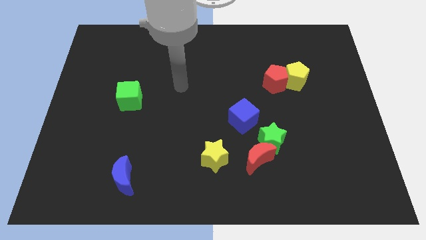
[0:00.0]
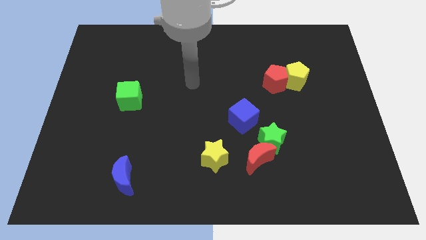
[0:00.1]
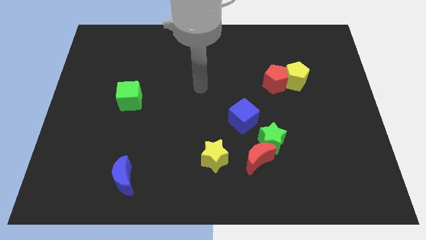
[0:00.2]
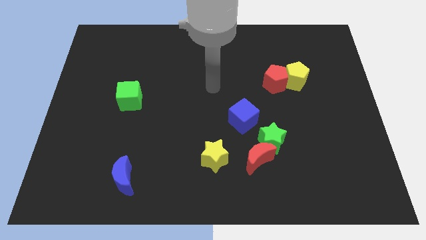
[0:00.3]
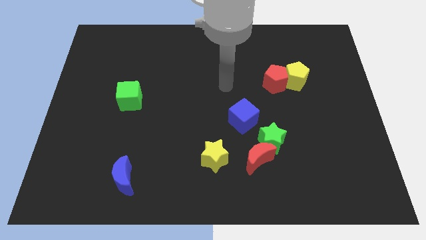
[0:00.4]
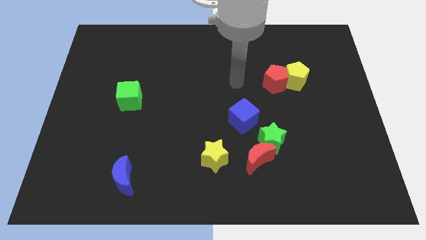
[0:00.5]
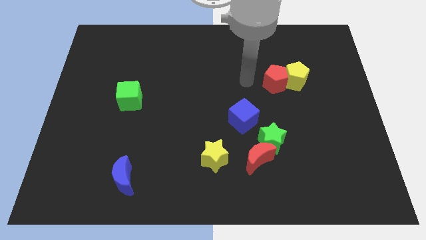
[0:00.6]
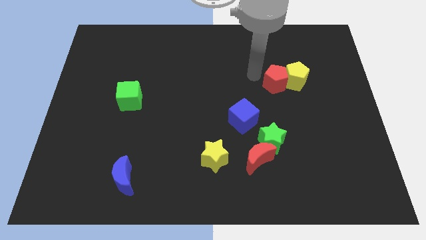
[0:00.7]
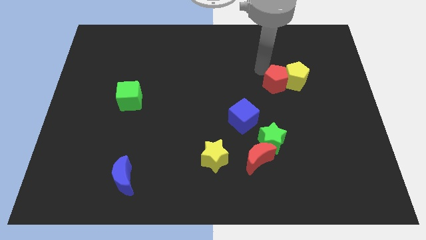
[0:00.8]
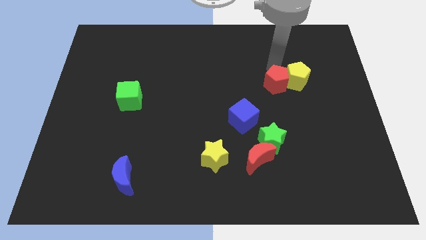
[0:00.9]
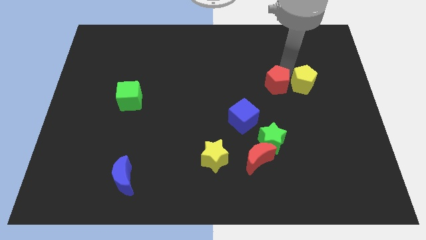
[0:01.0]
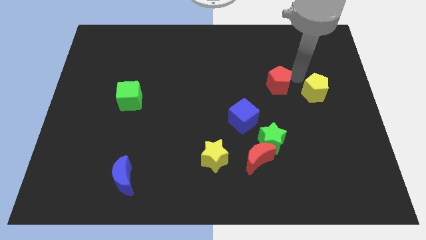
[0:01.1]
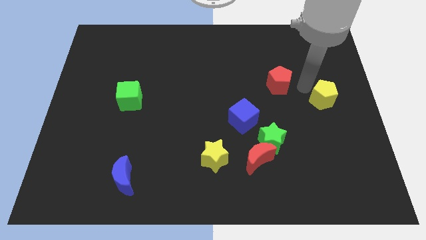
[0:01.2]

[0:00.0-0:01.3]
separate the red pentagon from the yellow pentagon

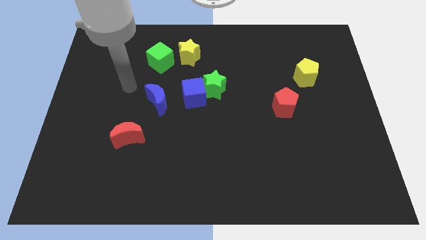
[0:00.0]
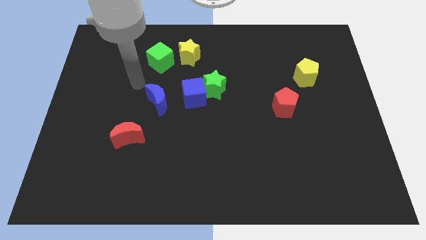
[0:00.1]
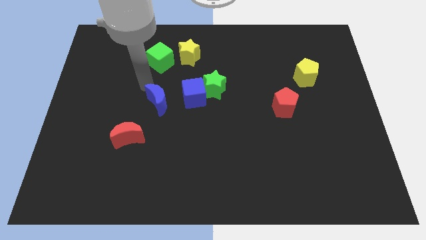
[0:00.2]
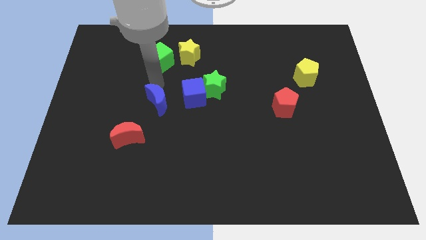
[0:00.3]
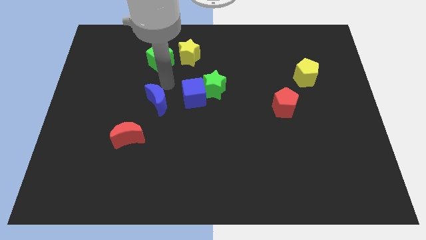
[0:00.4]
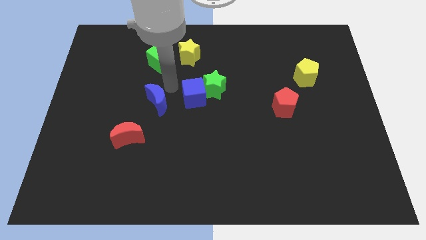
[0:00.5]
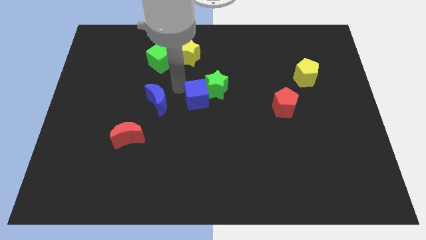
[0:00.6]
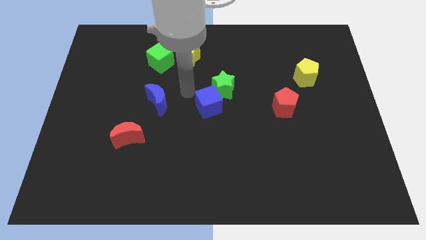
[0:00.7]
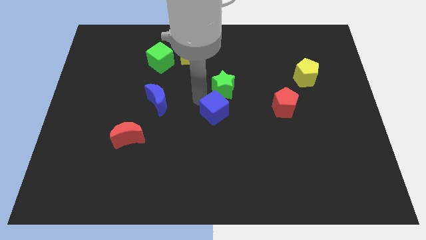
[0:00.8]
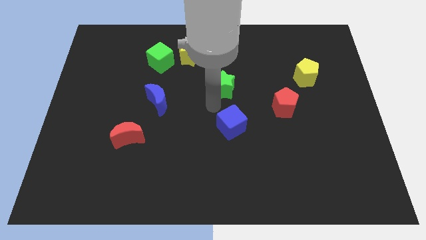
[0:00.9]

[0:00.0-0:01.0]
pull the green star apart from the blue cube

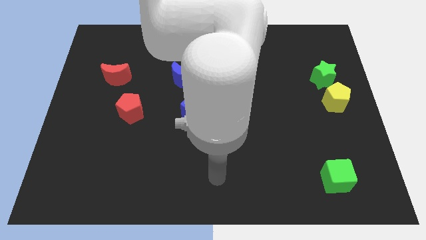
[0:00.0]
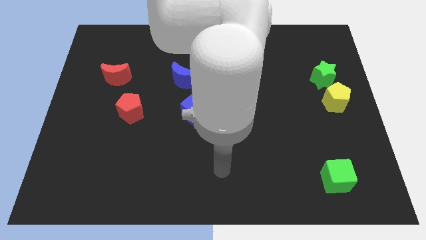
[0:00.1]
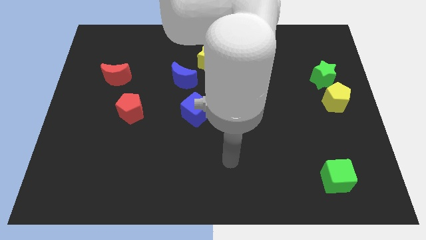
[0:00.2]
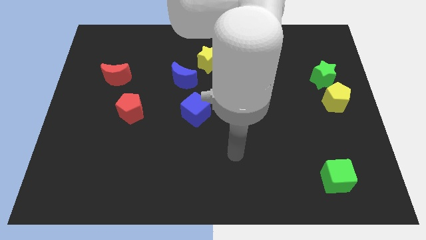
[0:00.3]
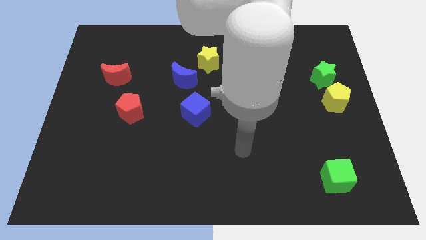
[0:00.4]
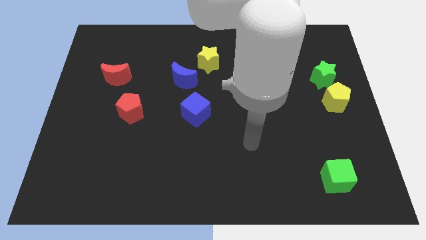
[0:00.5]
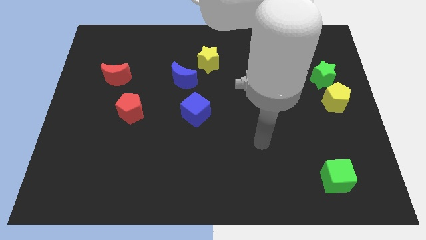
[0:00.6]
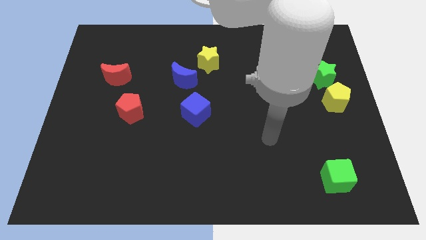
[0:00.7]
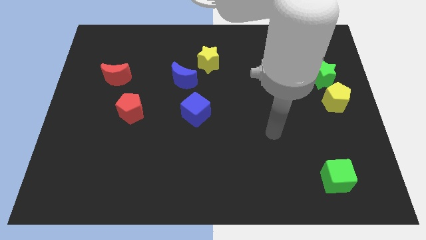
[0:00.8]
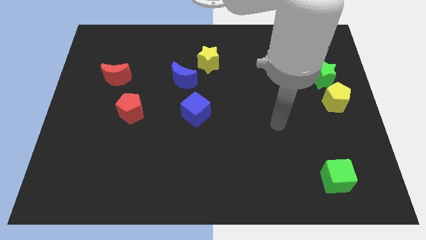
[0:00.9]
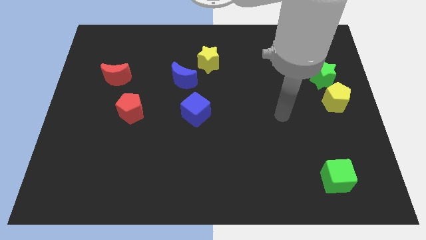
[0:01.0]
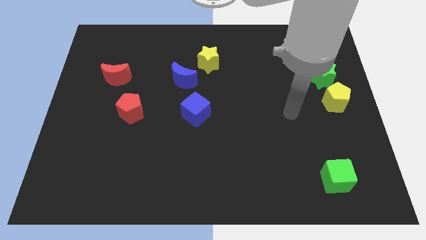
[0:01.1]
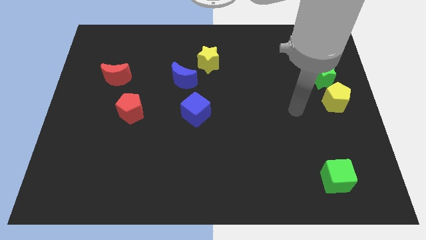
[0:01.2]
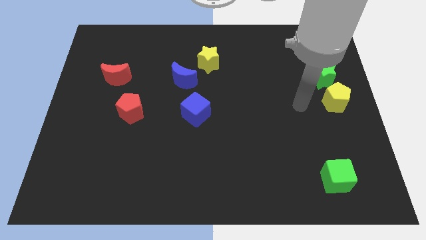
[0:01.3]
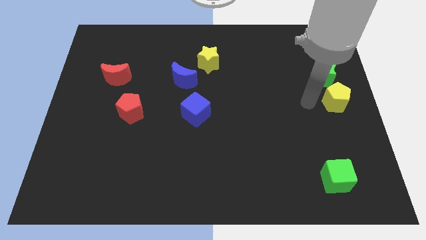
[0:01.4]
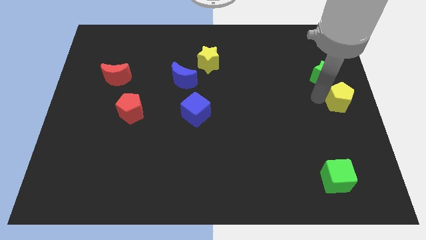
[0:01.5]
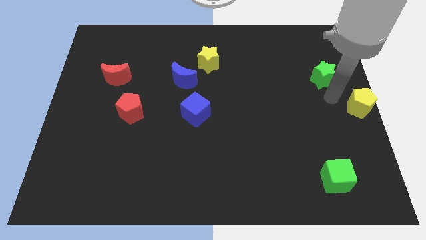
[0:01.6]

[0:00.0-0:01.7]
move the green star away from the yellow pentagon

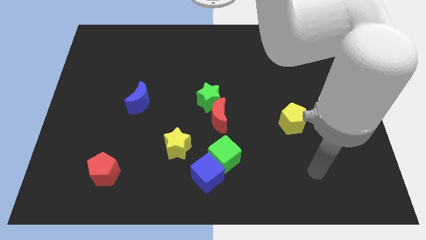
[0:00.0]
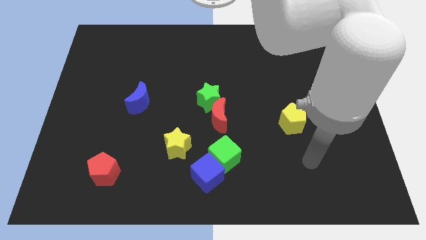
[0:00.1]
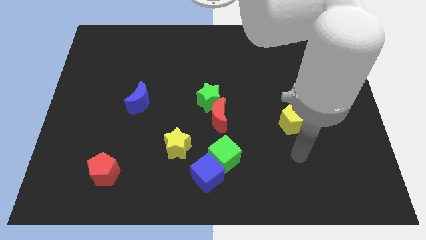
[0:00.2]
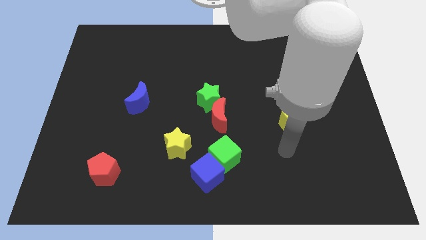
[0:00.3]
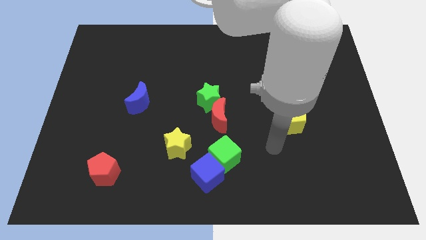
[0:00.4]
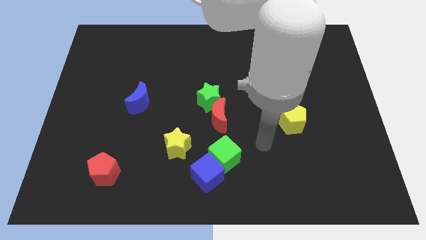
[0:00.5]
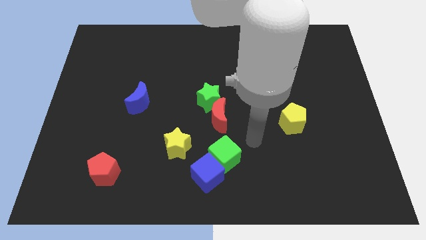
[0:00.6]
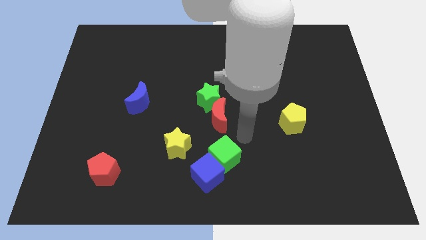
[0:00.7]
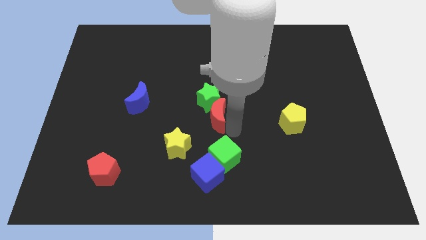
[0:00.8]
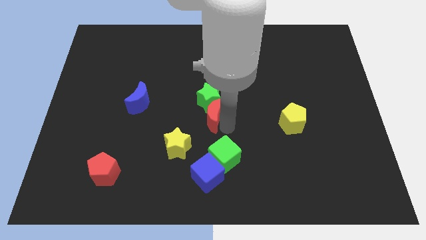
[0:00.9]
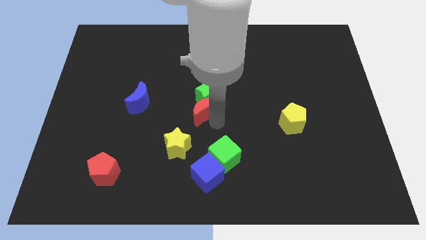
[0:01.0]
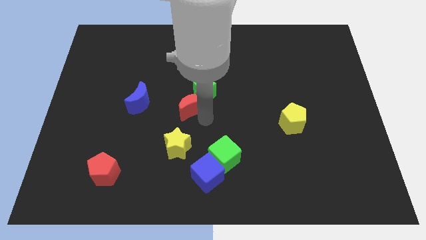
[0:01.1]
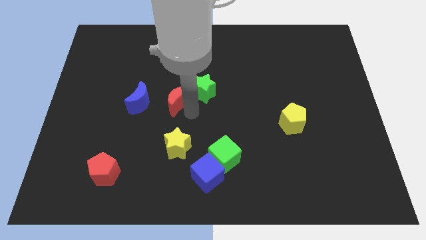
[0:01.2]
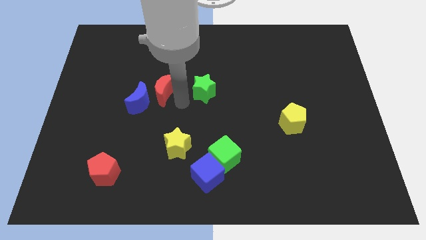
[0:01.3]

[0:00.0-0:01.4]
separate the green star from the red moon

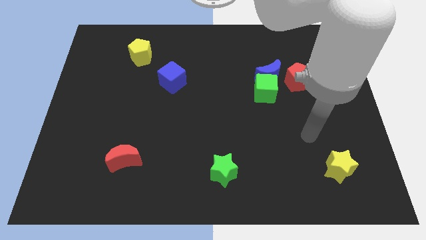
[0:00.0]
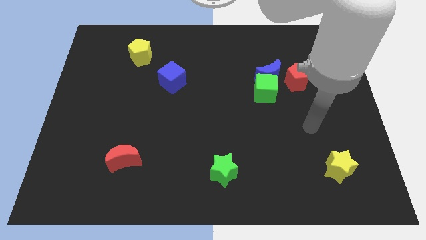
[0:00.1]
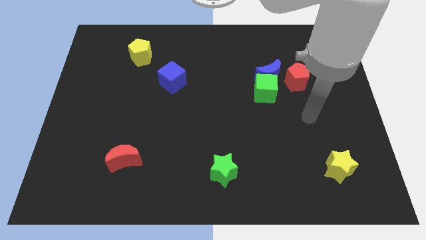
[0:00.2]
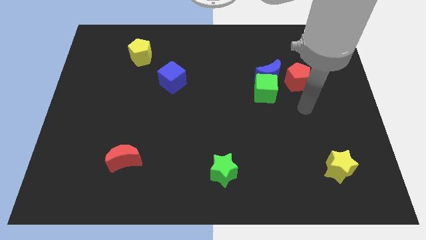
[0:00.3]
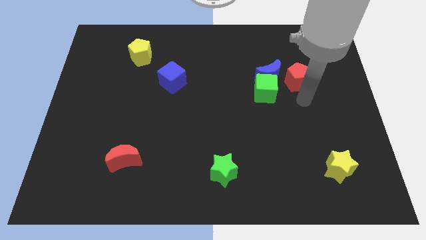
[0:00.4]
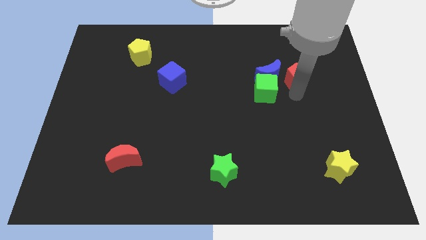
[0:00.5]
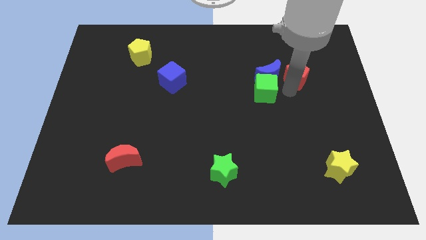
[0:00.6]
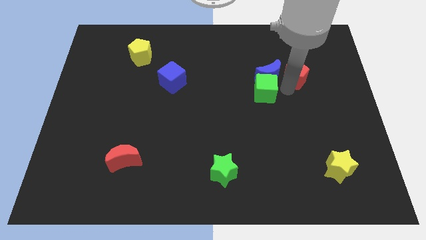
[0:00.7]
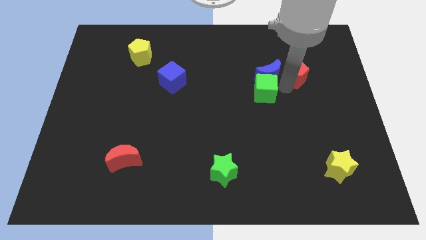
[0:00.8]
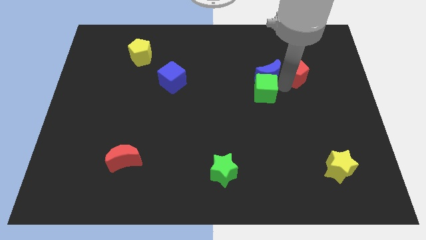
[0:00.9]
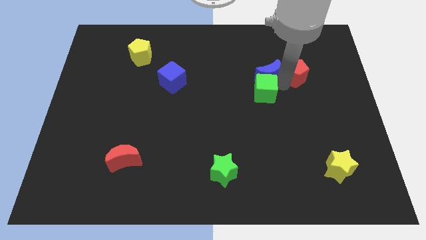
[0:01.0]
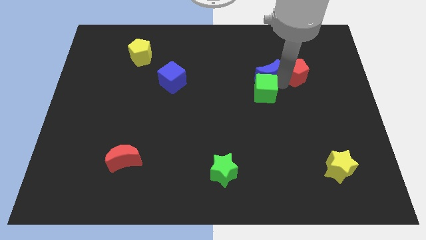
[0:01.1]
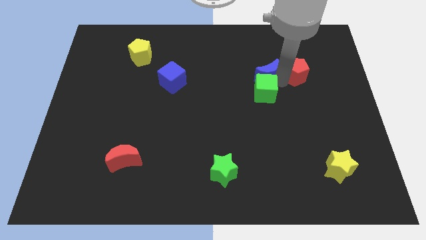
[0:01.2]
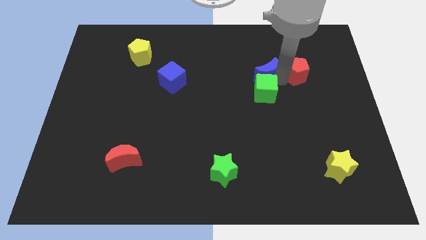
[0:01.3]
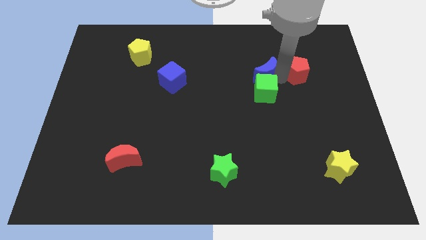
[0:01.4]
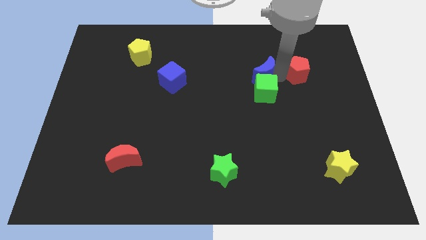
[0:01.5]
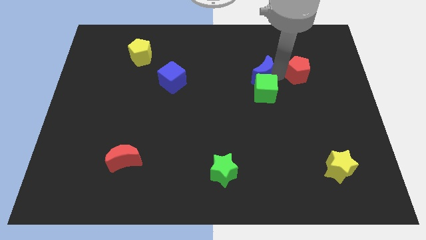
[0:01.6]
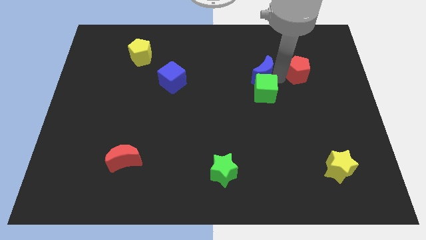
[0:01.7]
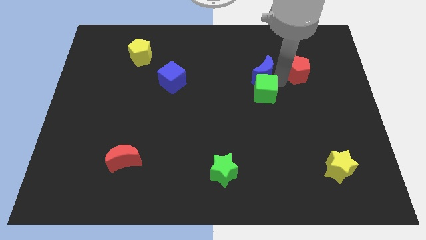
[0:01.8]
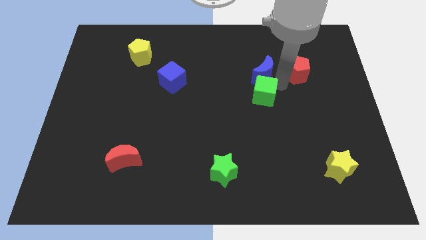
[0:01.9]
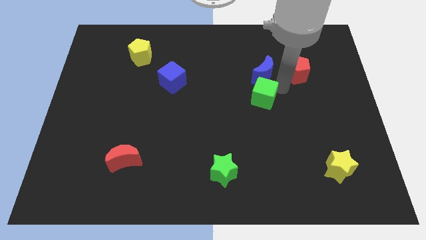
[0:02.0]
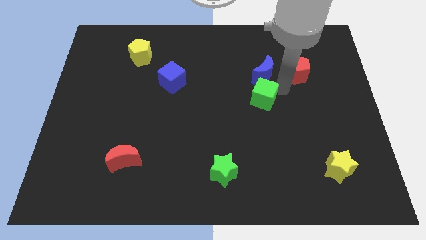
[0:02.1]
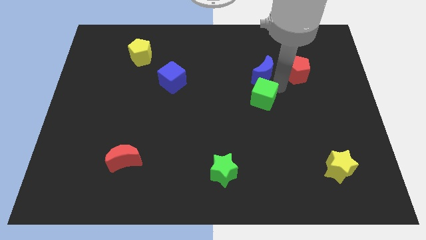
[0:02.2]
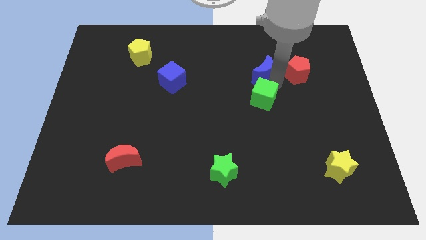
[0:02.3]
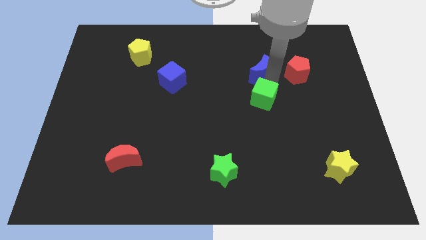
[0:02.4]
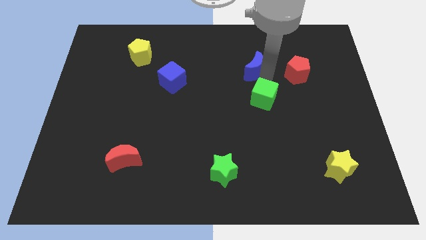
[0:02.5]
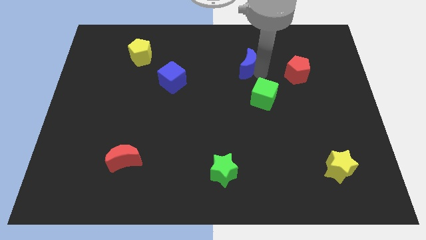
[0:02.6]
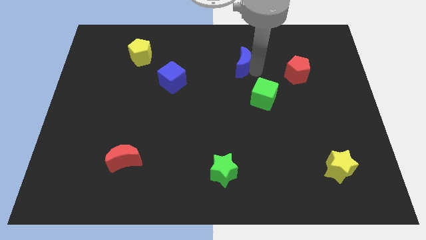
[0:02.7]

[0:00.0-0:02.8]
pull the blue moon apart from the green cube and red pentagon

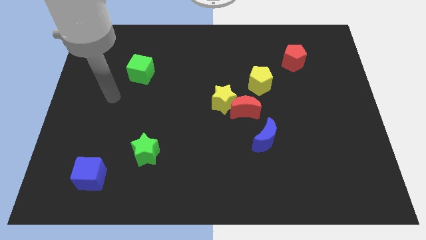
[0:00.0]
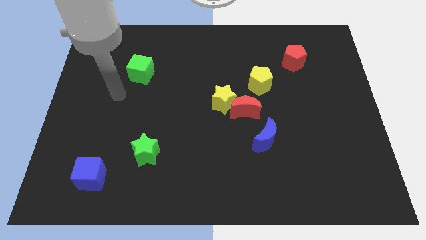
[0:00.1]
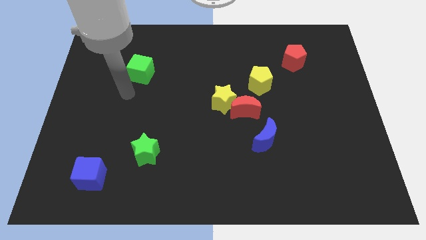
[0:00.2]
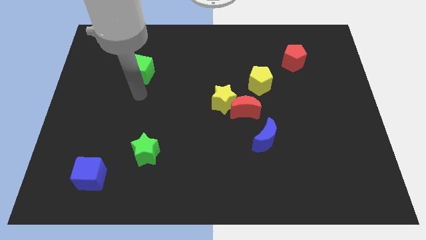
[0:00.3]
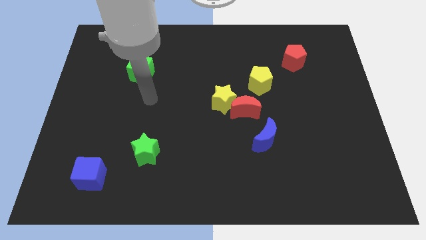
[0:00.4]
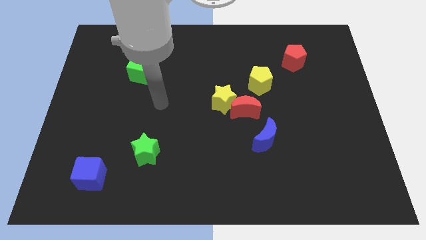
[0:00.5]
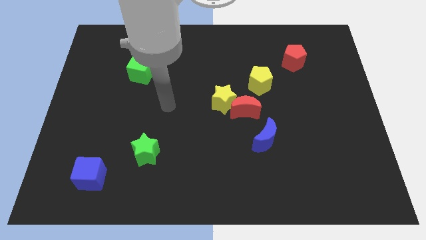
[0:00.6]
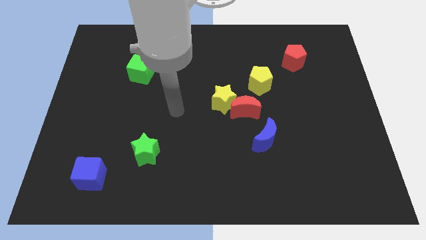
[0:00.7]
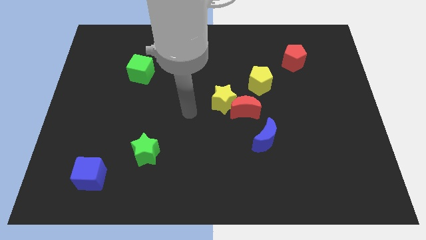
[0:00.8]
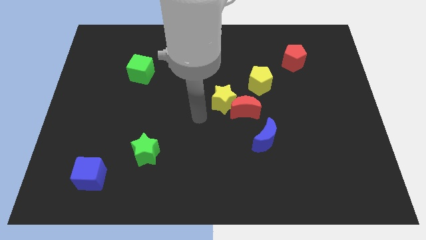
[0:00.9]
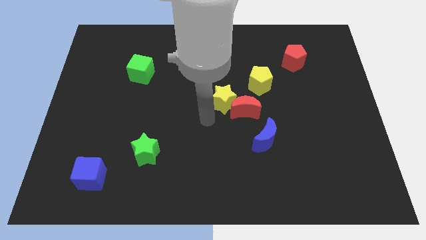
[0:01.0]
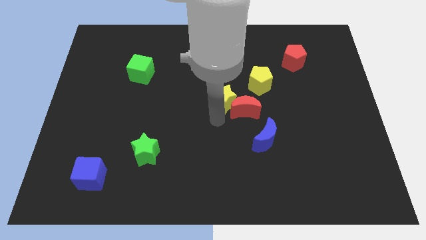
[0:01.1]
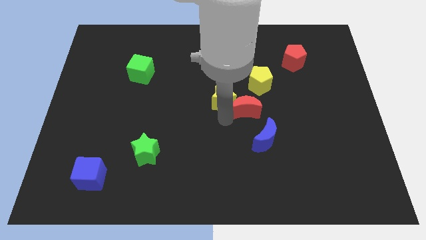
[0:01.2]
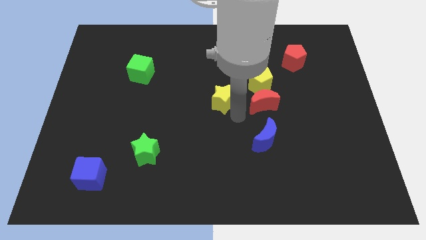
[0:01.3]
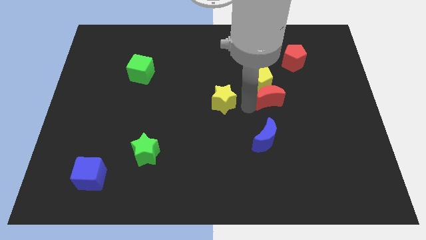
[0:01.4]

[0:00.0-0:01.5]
pull the yellow star apart from the red moon
